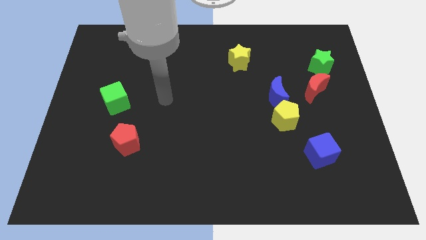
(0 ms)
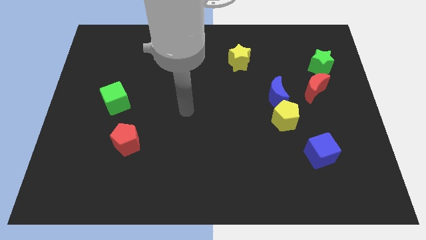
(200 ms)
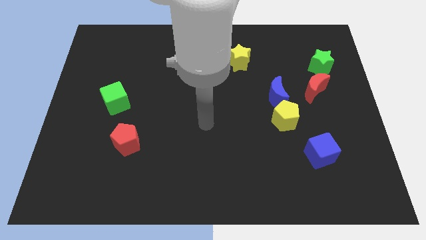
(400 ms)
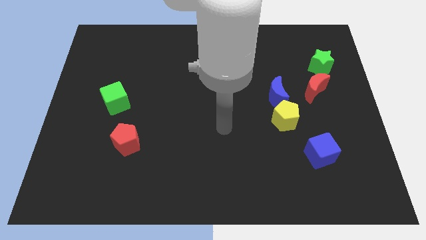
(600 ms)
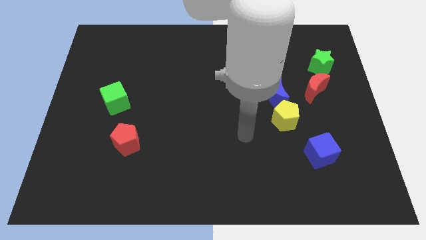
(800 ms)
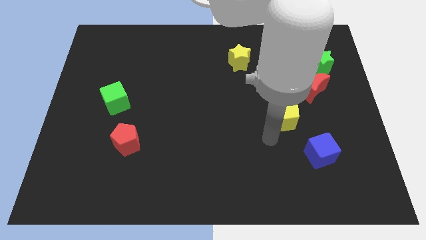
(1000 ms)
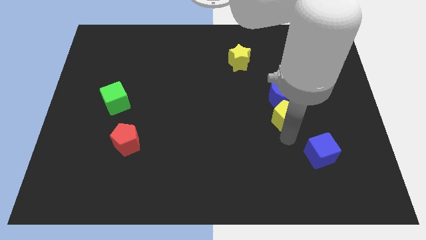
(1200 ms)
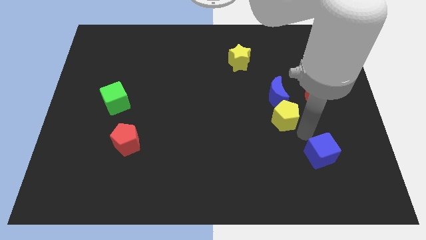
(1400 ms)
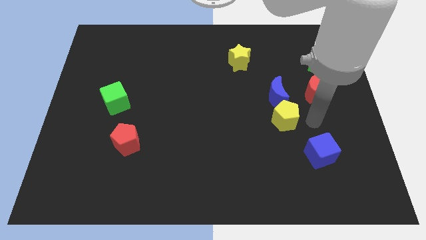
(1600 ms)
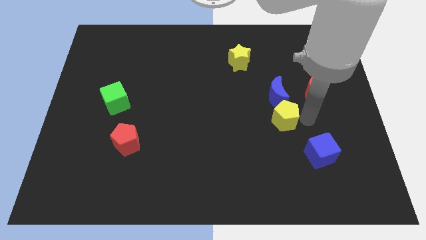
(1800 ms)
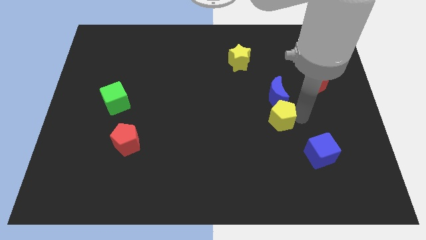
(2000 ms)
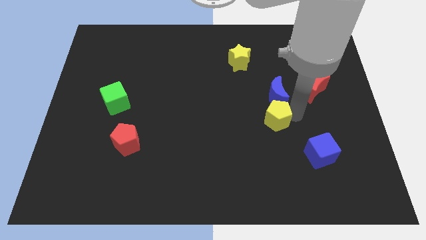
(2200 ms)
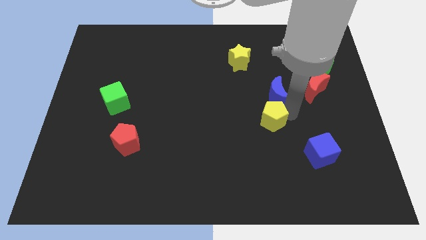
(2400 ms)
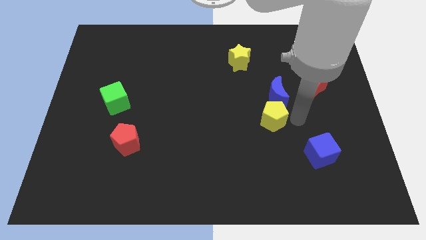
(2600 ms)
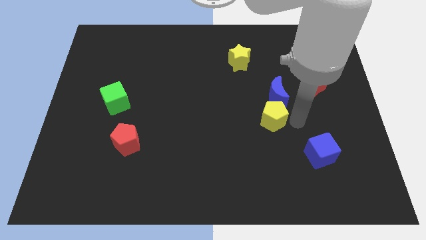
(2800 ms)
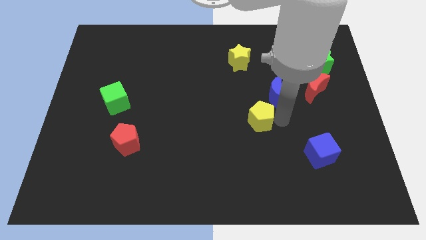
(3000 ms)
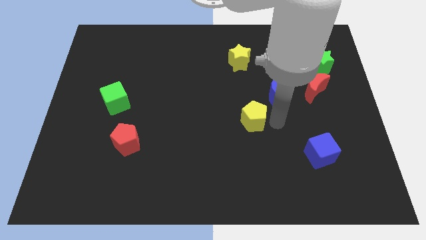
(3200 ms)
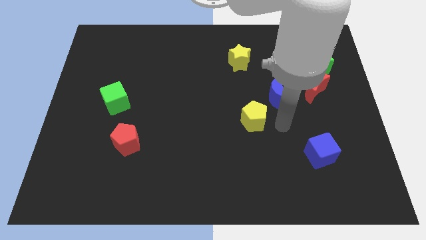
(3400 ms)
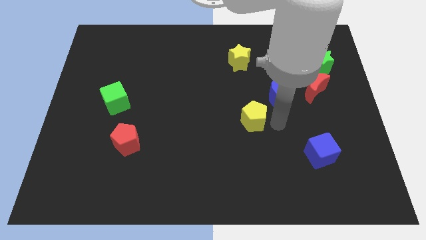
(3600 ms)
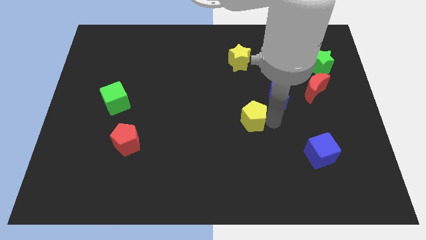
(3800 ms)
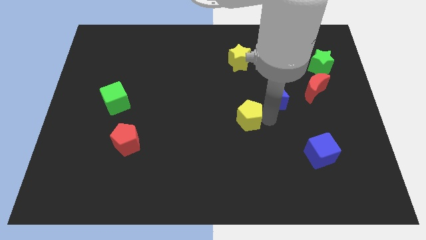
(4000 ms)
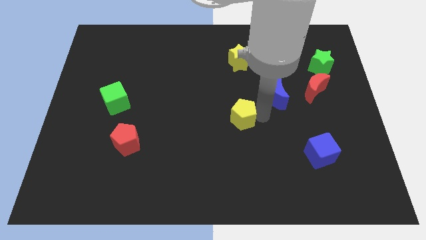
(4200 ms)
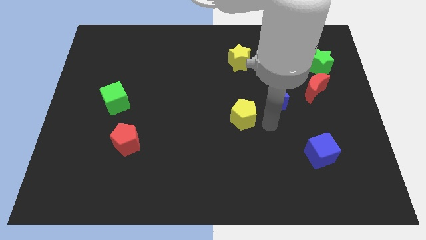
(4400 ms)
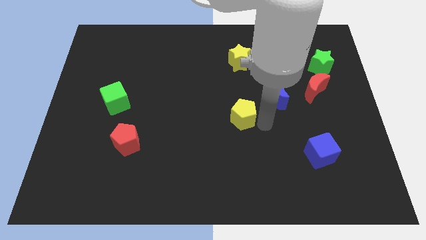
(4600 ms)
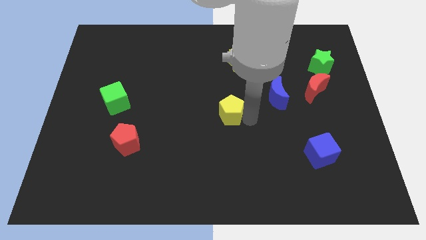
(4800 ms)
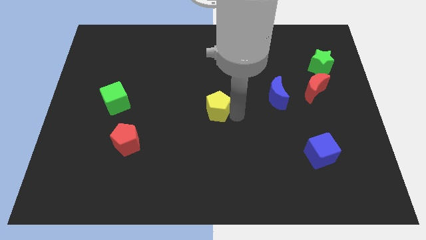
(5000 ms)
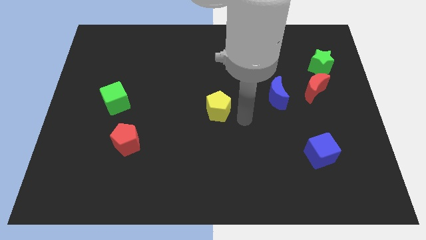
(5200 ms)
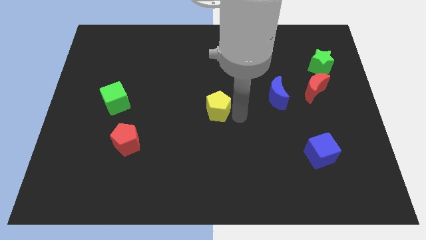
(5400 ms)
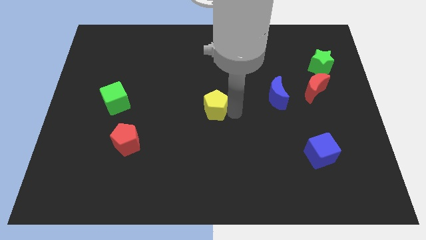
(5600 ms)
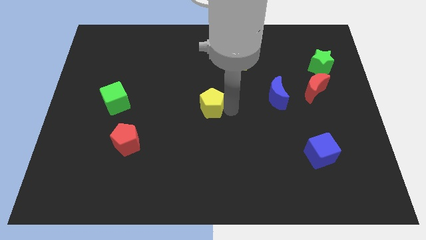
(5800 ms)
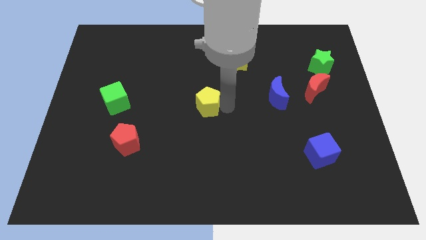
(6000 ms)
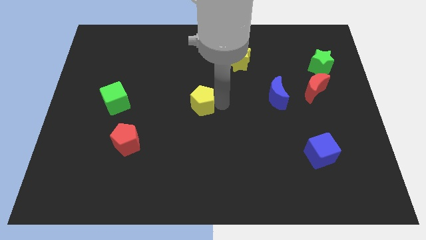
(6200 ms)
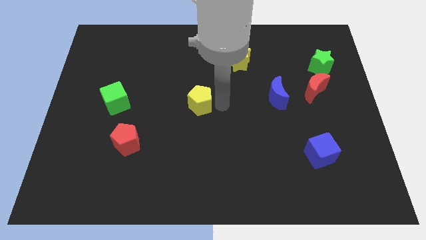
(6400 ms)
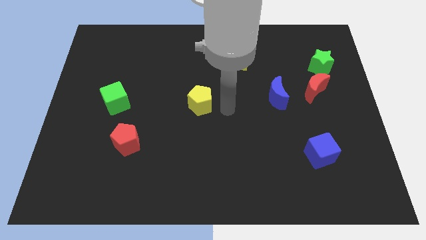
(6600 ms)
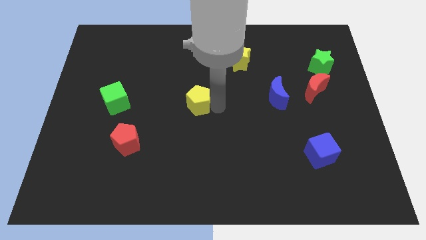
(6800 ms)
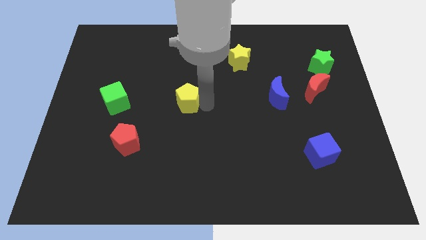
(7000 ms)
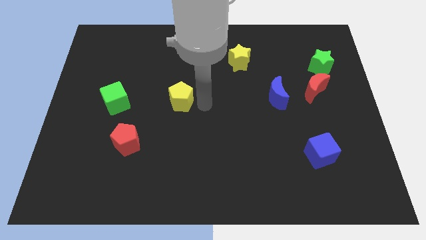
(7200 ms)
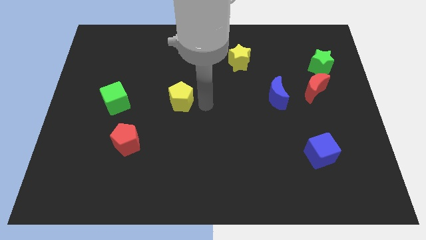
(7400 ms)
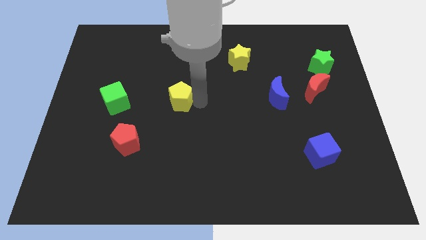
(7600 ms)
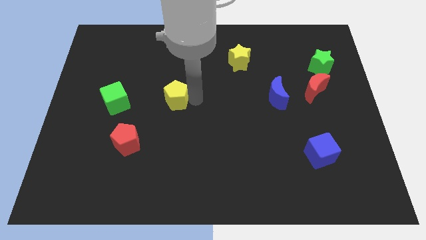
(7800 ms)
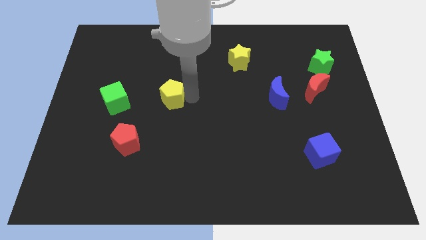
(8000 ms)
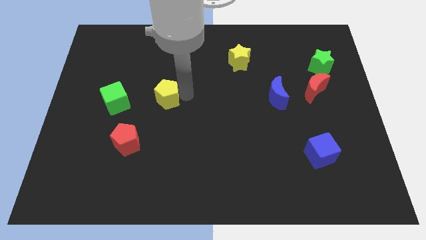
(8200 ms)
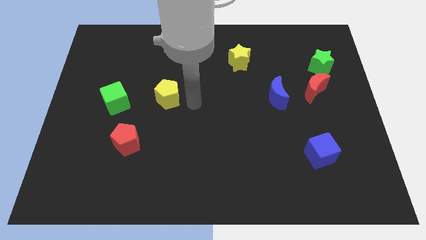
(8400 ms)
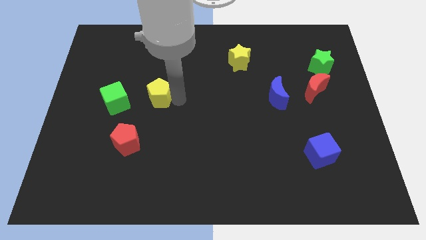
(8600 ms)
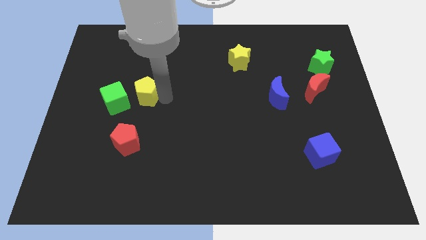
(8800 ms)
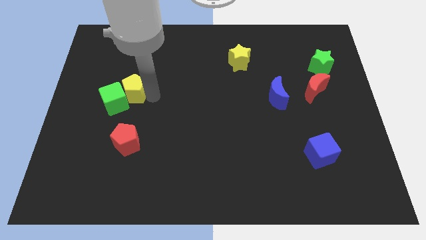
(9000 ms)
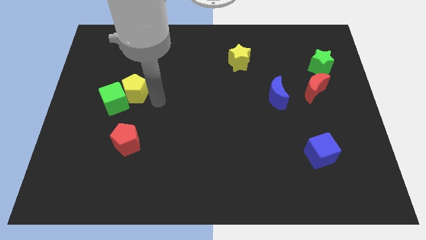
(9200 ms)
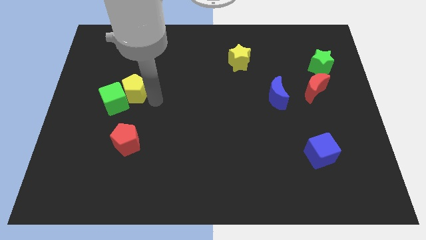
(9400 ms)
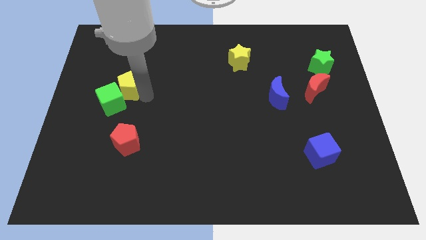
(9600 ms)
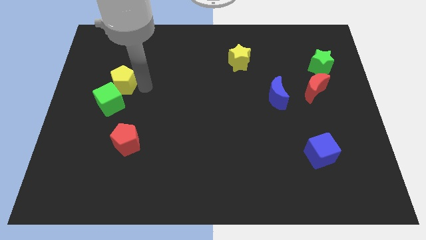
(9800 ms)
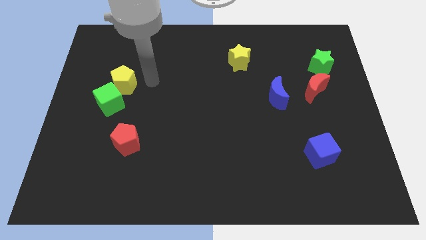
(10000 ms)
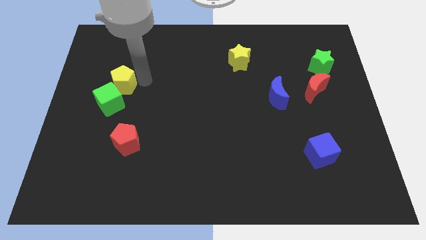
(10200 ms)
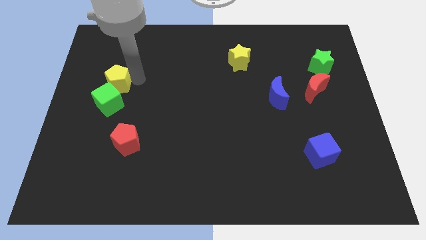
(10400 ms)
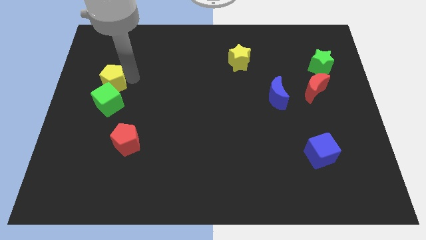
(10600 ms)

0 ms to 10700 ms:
move the yellow pentagon to the top left side of the green cube

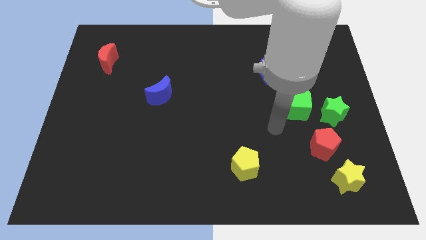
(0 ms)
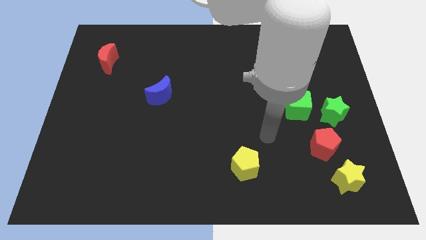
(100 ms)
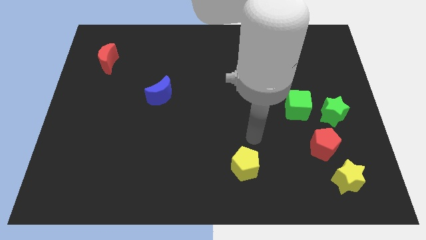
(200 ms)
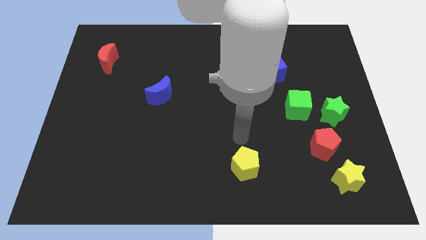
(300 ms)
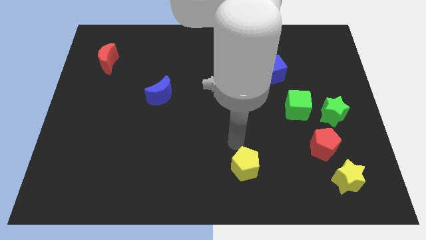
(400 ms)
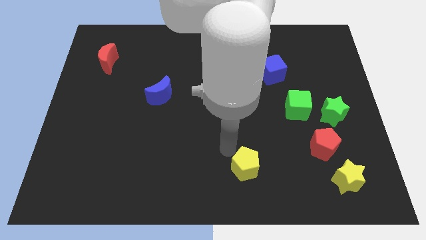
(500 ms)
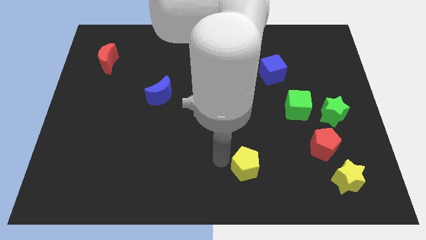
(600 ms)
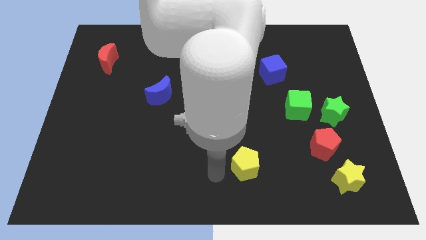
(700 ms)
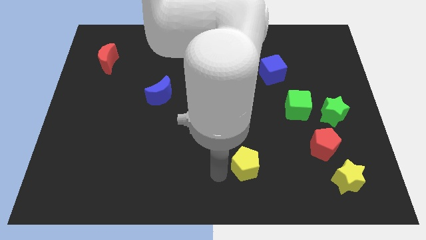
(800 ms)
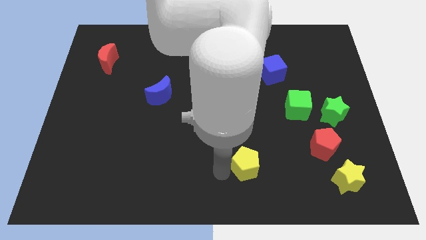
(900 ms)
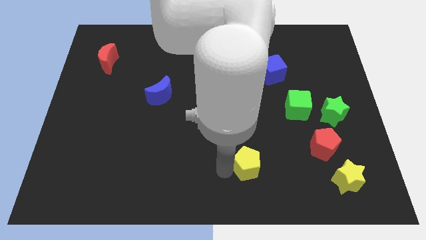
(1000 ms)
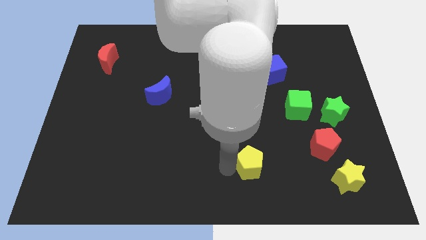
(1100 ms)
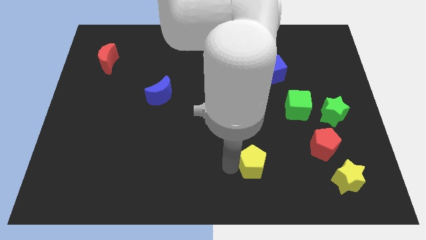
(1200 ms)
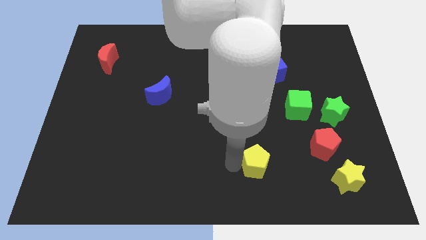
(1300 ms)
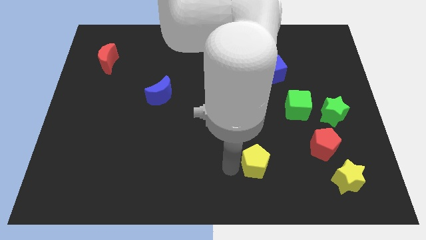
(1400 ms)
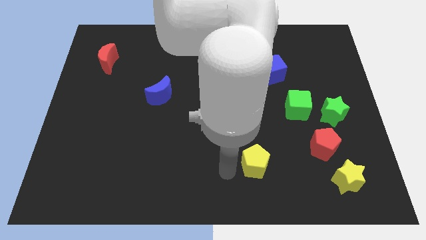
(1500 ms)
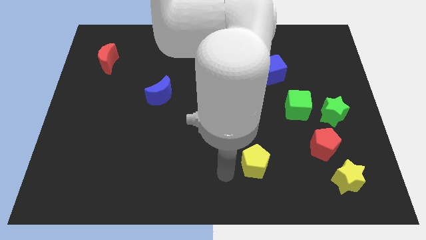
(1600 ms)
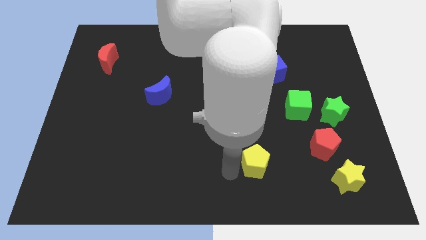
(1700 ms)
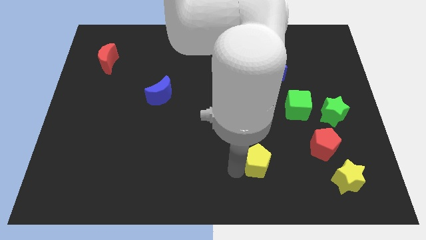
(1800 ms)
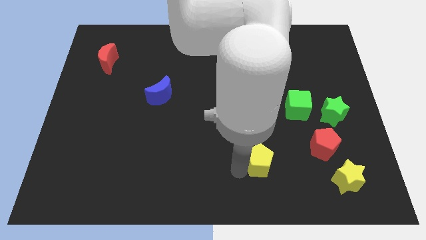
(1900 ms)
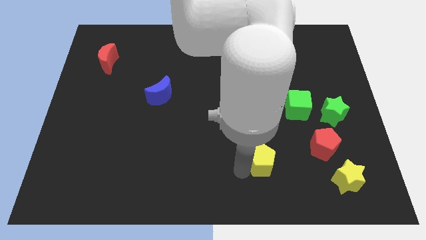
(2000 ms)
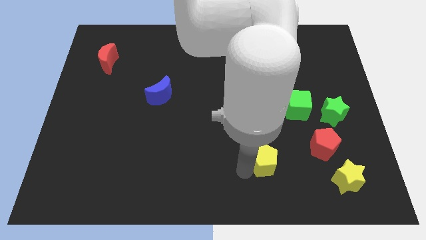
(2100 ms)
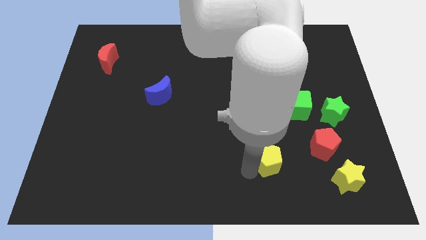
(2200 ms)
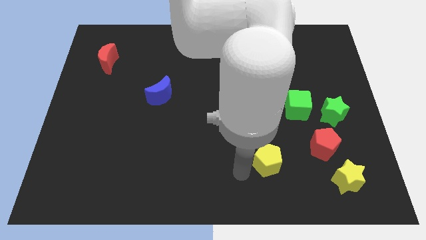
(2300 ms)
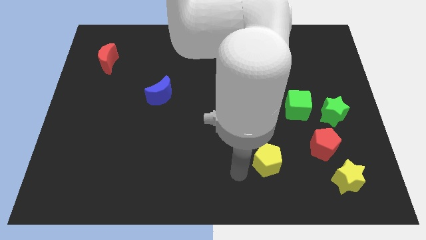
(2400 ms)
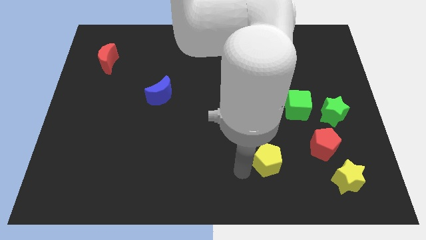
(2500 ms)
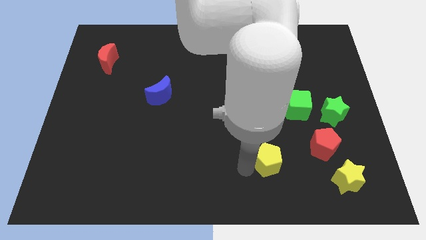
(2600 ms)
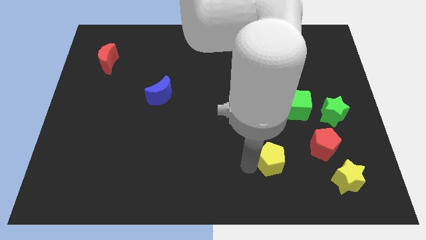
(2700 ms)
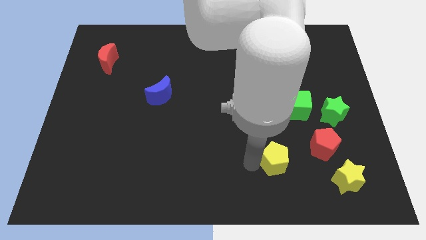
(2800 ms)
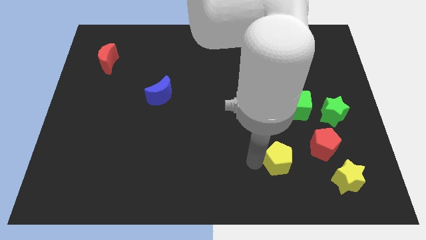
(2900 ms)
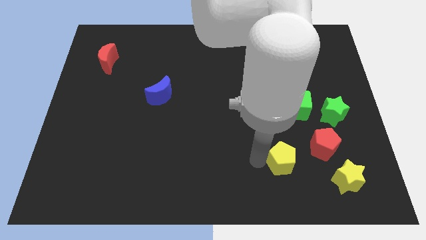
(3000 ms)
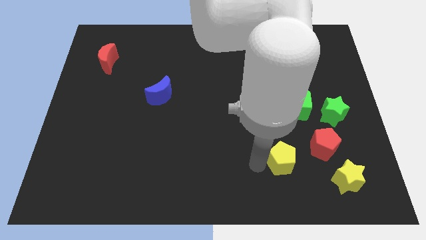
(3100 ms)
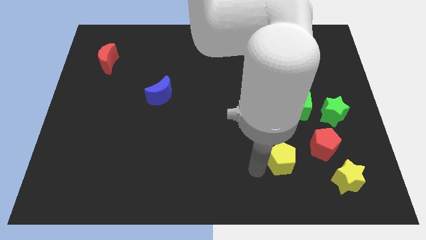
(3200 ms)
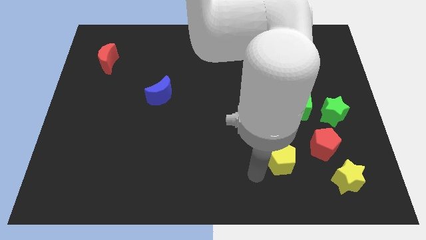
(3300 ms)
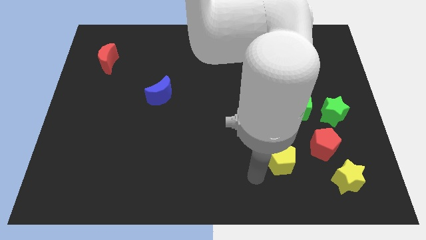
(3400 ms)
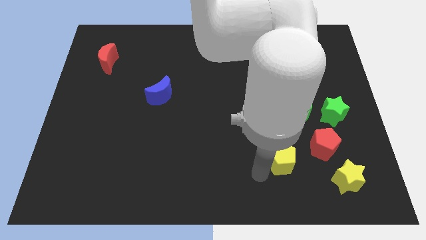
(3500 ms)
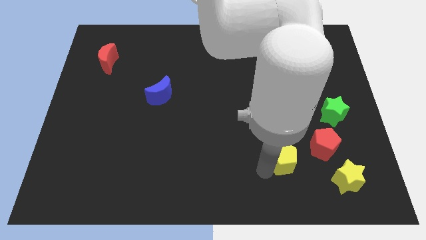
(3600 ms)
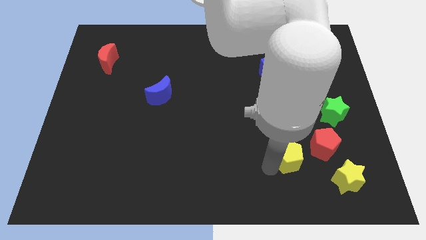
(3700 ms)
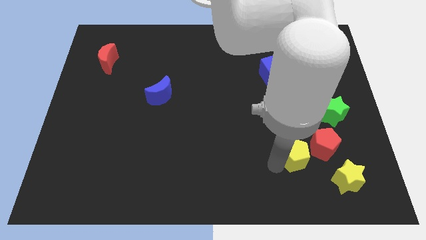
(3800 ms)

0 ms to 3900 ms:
move the yellow pentagon diagonally up and to the left of the yellow star
